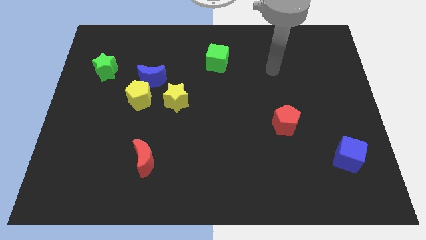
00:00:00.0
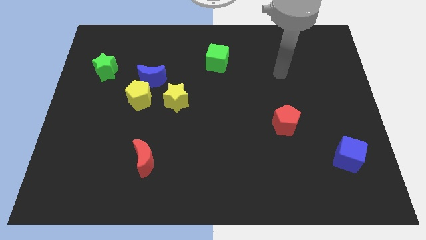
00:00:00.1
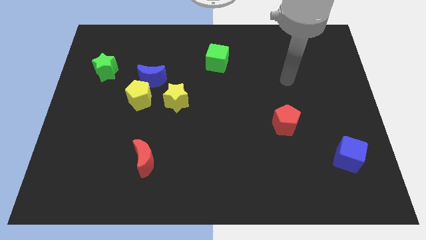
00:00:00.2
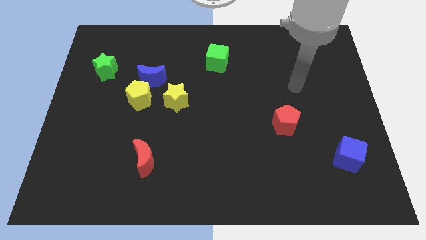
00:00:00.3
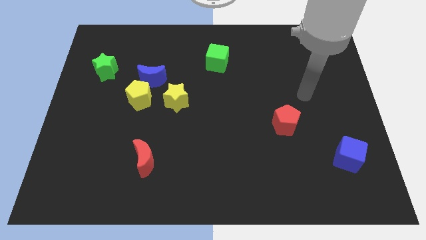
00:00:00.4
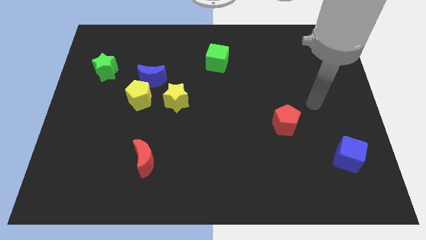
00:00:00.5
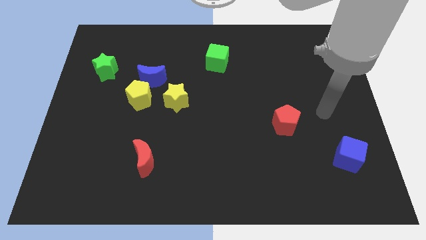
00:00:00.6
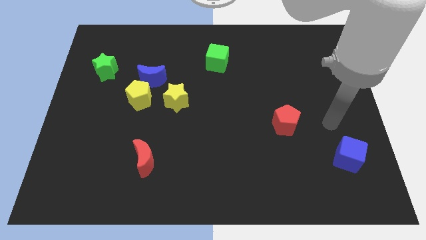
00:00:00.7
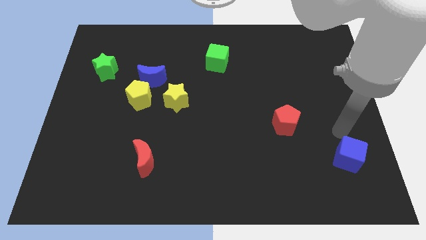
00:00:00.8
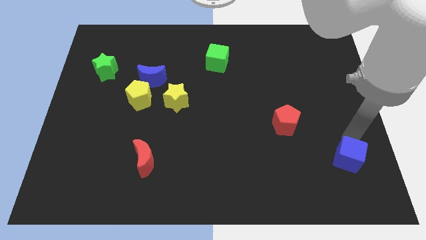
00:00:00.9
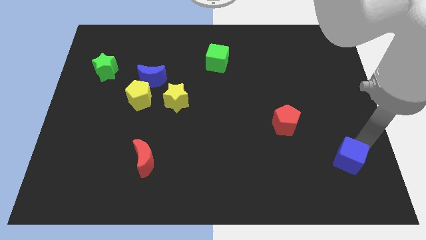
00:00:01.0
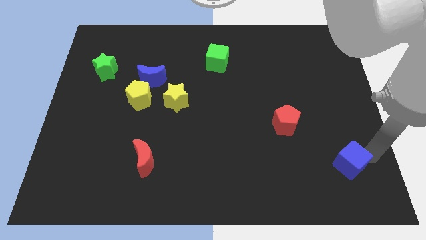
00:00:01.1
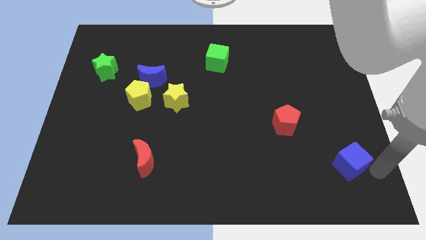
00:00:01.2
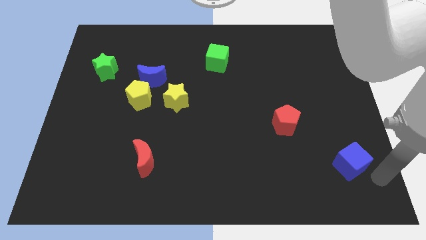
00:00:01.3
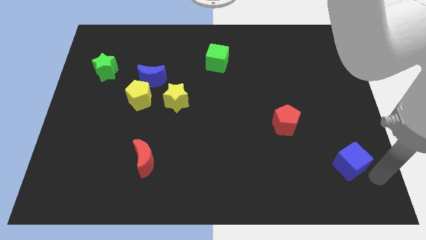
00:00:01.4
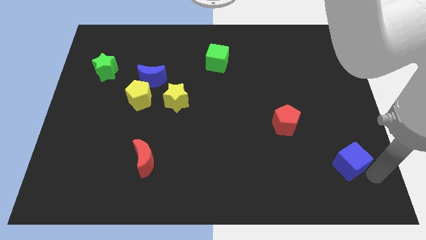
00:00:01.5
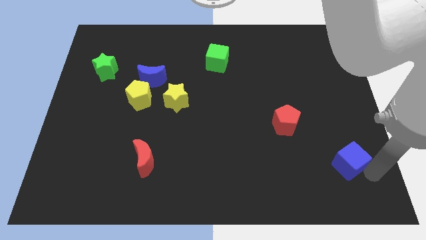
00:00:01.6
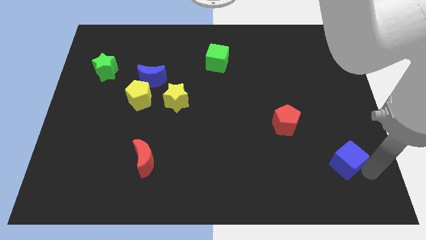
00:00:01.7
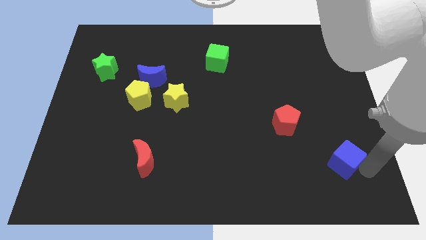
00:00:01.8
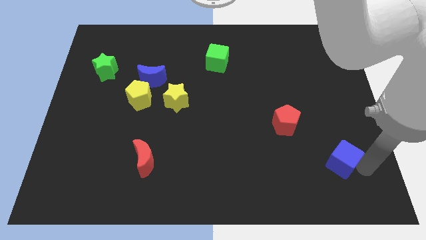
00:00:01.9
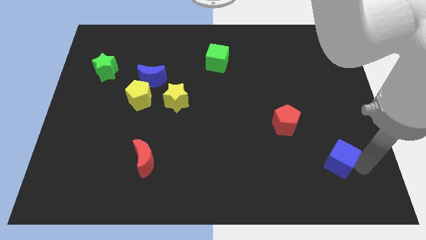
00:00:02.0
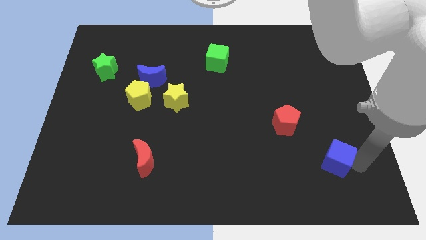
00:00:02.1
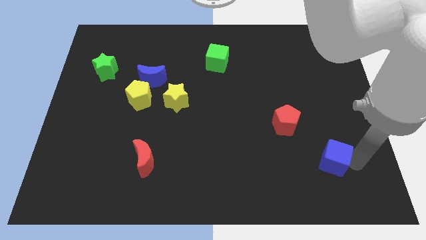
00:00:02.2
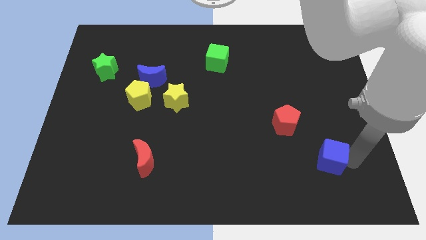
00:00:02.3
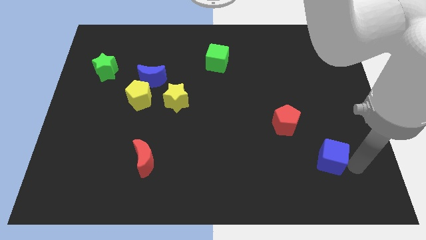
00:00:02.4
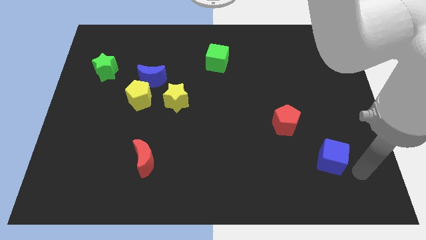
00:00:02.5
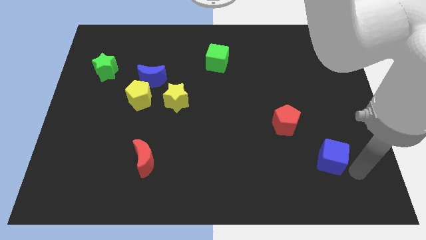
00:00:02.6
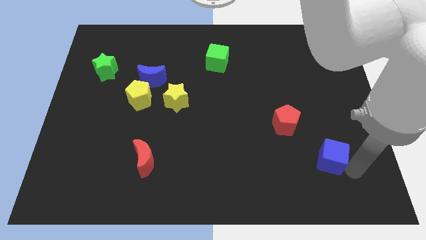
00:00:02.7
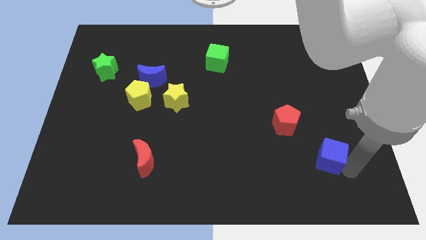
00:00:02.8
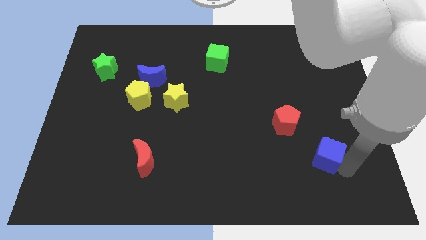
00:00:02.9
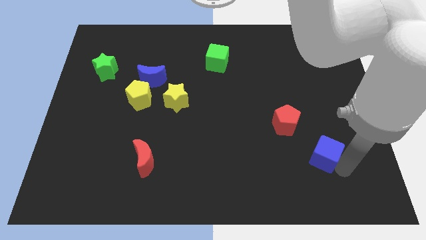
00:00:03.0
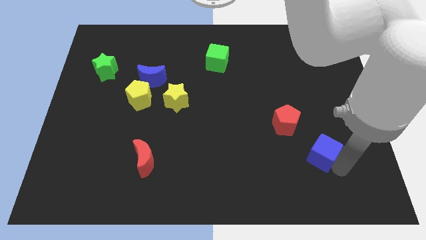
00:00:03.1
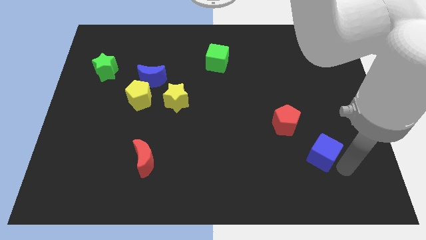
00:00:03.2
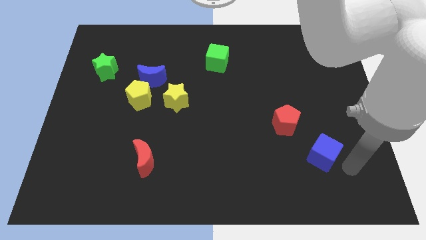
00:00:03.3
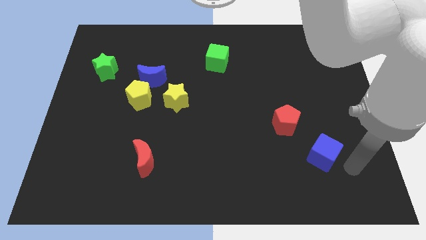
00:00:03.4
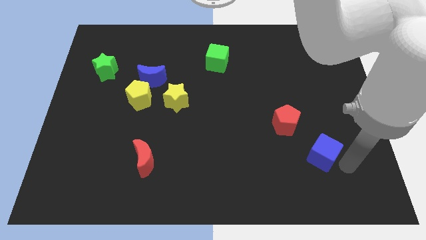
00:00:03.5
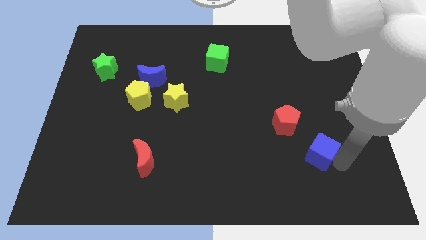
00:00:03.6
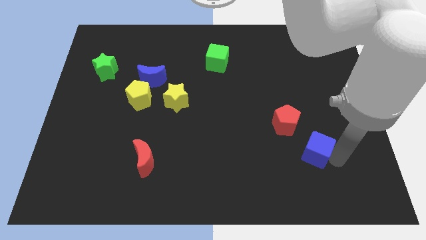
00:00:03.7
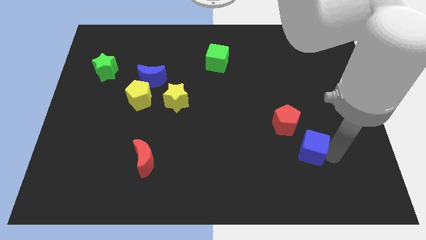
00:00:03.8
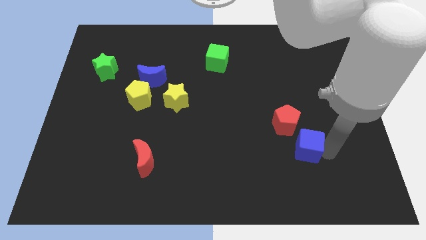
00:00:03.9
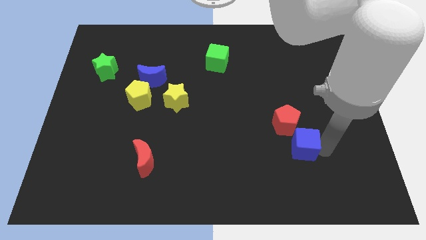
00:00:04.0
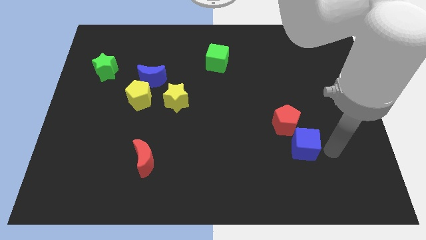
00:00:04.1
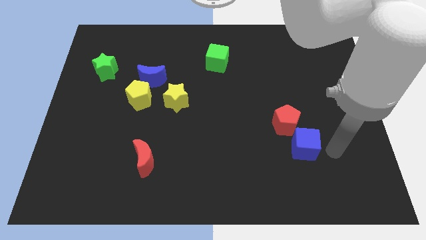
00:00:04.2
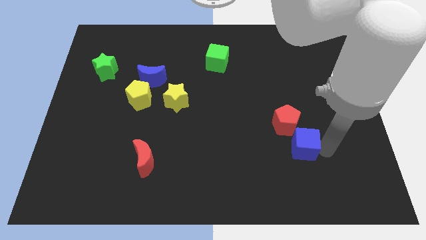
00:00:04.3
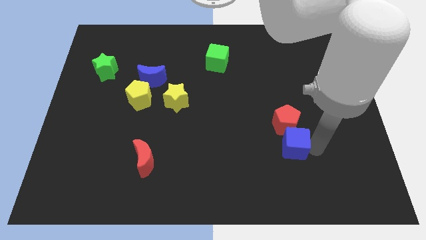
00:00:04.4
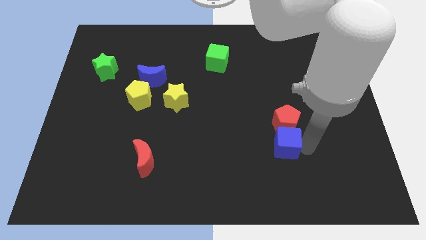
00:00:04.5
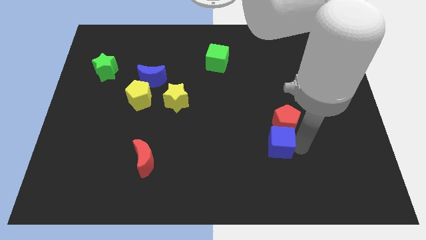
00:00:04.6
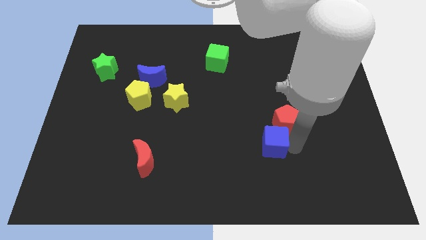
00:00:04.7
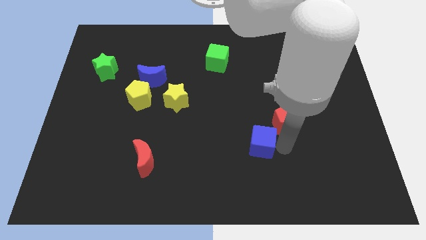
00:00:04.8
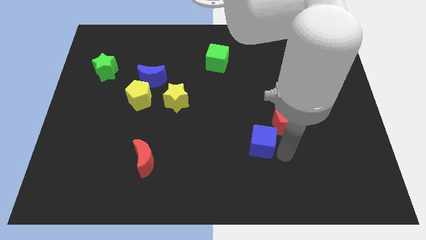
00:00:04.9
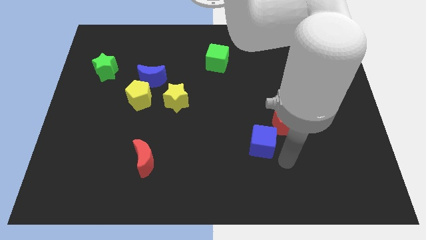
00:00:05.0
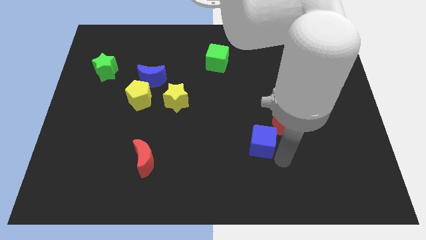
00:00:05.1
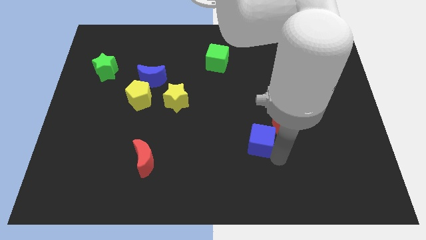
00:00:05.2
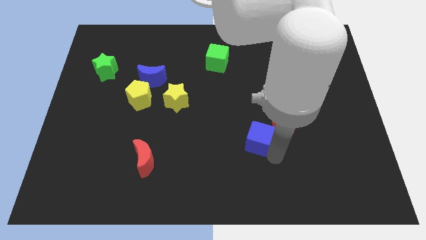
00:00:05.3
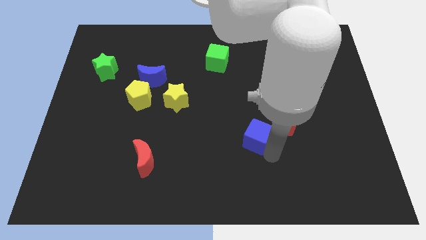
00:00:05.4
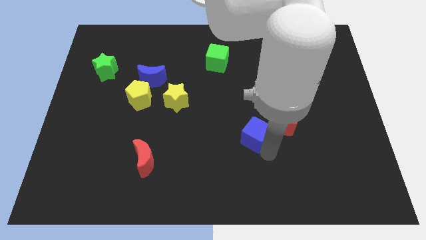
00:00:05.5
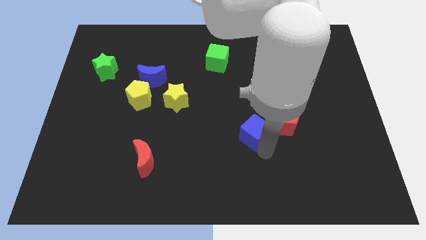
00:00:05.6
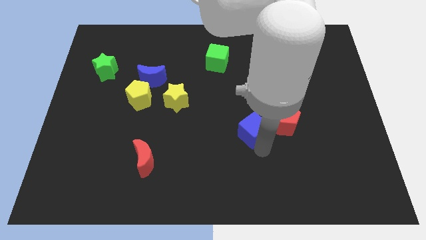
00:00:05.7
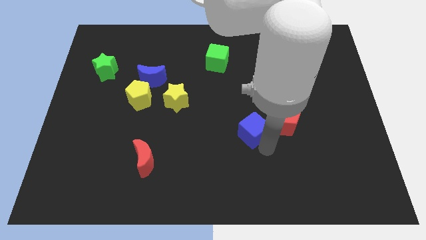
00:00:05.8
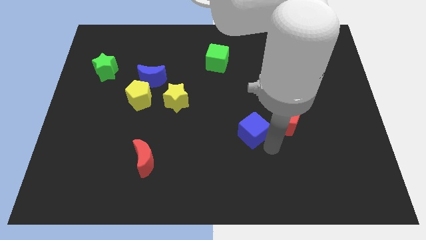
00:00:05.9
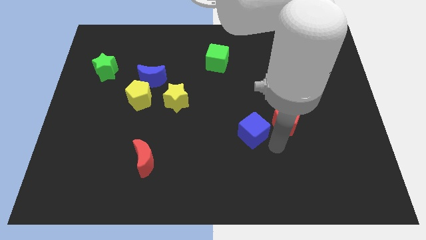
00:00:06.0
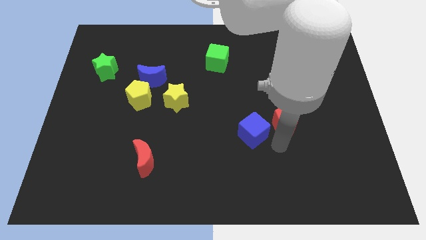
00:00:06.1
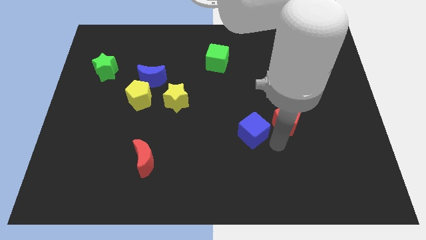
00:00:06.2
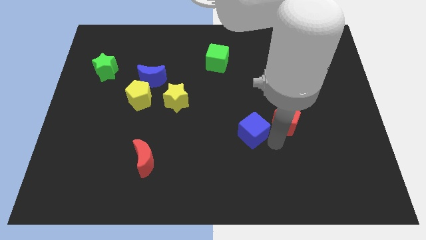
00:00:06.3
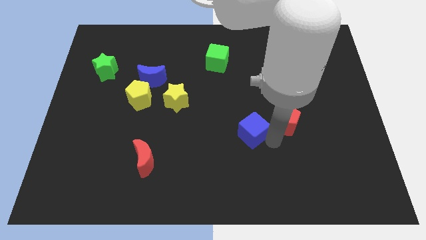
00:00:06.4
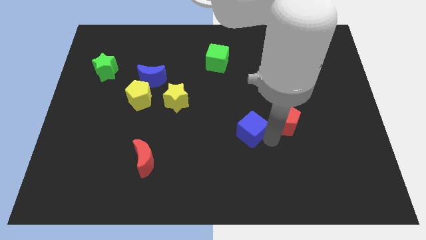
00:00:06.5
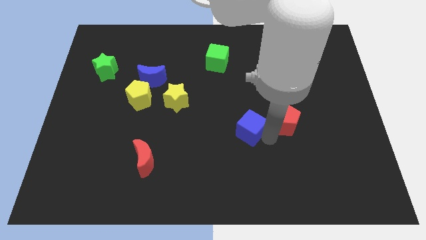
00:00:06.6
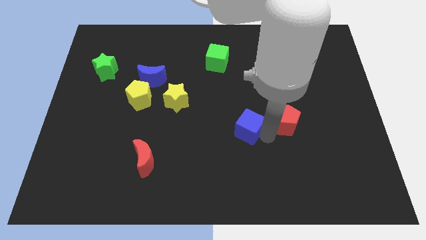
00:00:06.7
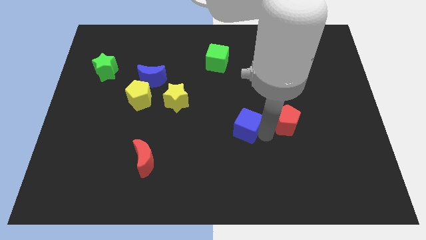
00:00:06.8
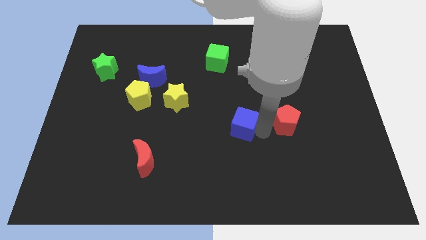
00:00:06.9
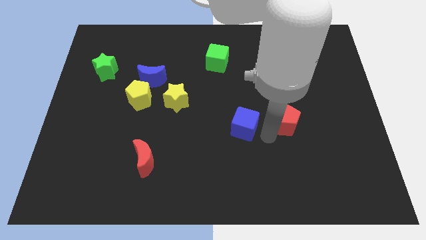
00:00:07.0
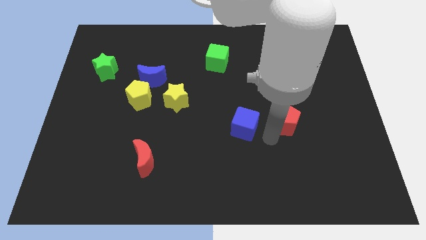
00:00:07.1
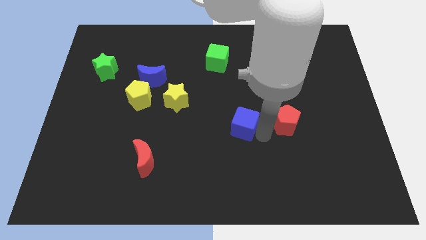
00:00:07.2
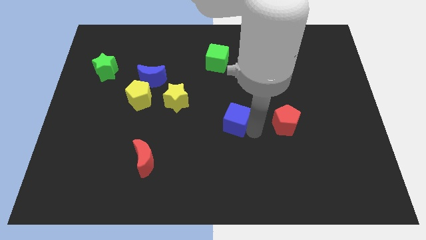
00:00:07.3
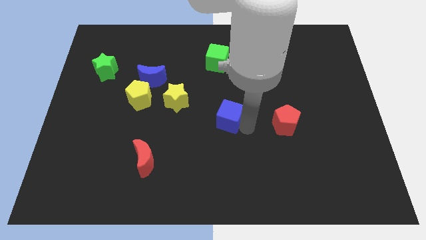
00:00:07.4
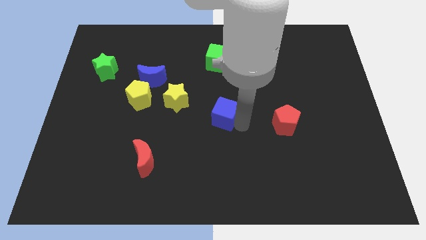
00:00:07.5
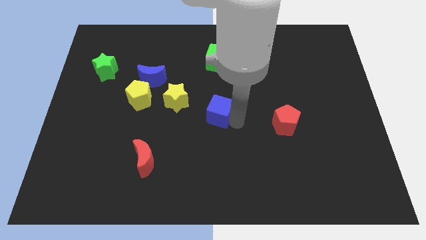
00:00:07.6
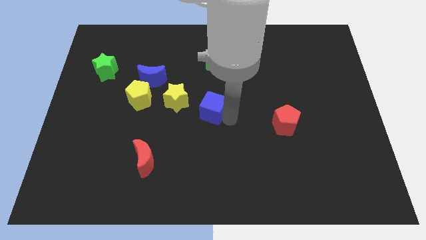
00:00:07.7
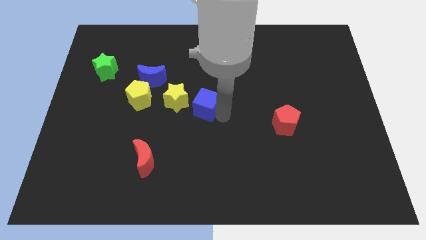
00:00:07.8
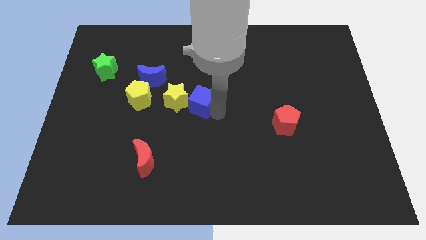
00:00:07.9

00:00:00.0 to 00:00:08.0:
put the blue cube towards the yellow star
